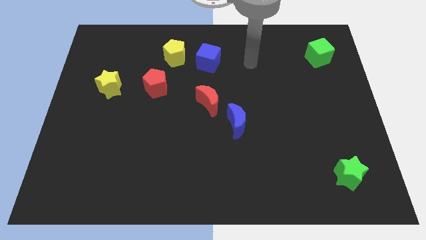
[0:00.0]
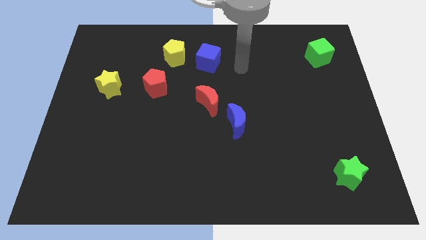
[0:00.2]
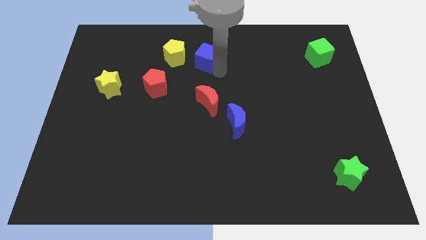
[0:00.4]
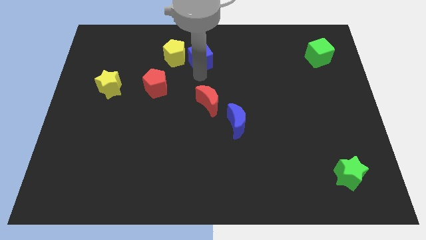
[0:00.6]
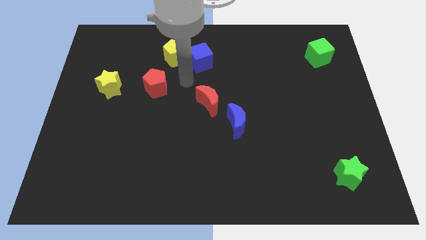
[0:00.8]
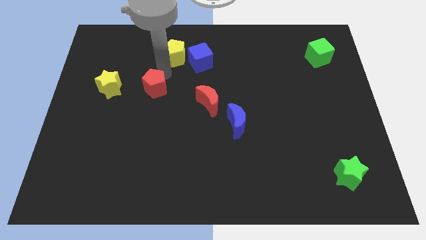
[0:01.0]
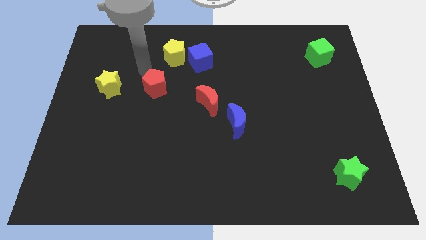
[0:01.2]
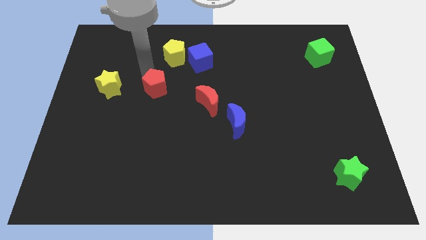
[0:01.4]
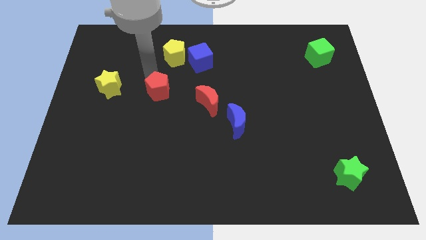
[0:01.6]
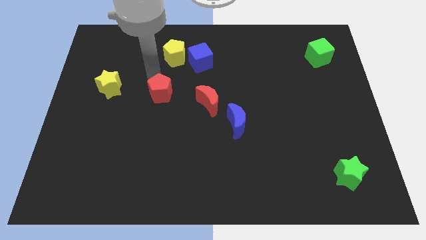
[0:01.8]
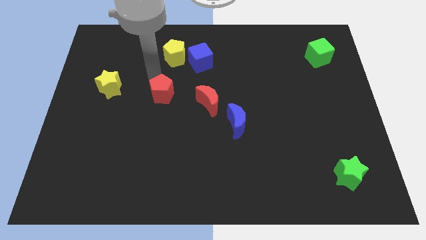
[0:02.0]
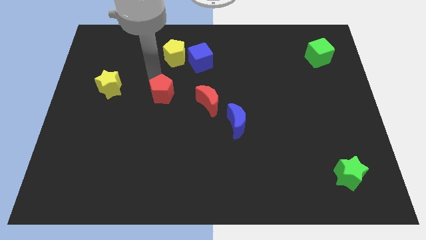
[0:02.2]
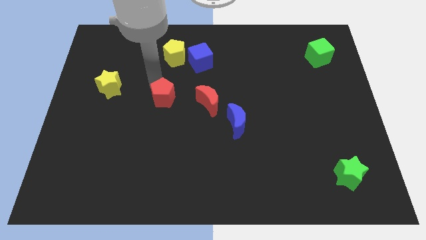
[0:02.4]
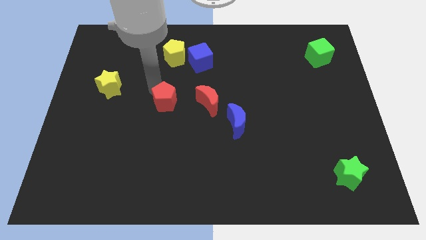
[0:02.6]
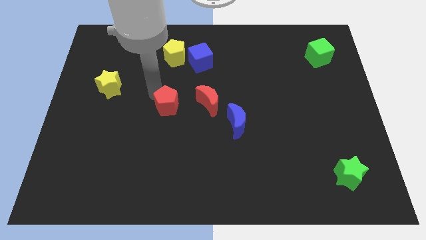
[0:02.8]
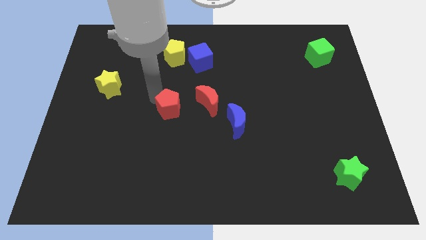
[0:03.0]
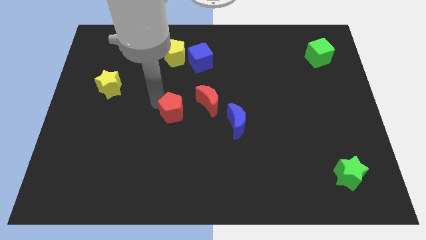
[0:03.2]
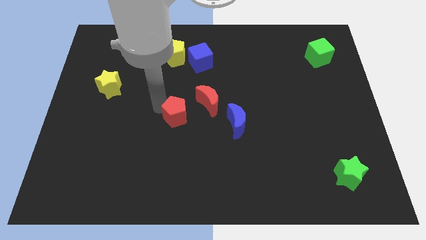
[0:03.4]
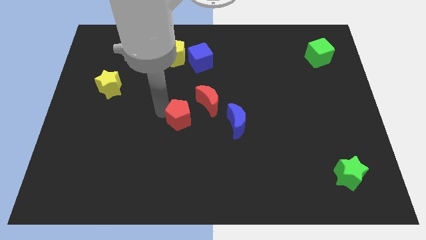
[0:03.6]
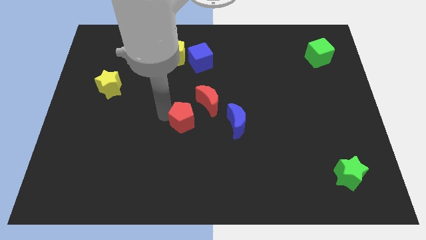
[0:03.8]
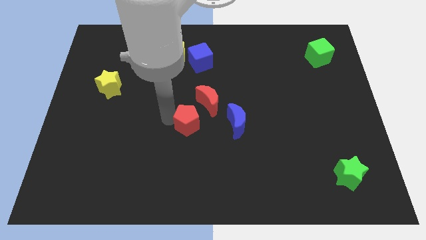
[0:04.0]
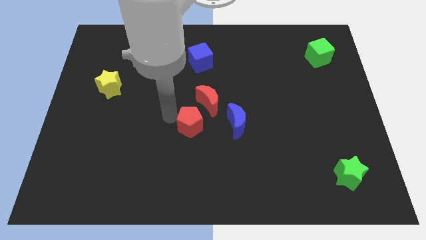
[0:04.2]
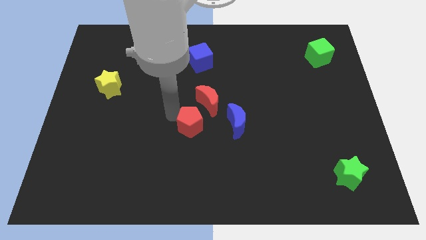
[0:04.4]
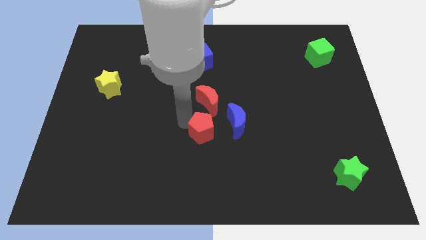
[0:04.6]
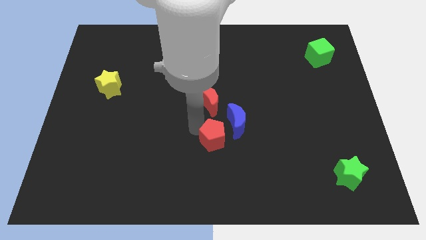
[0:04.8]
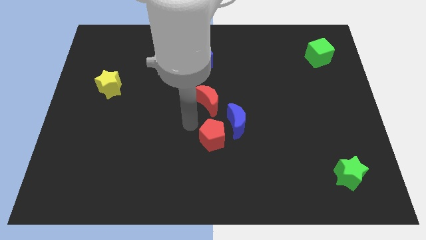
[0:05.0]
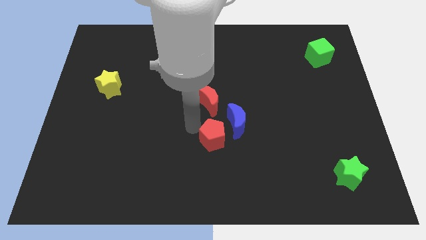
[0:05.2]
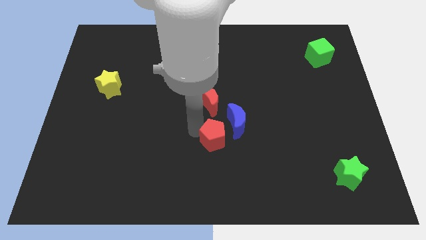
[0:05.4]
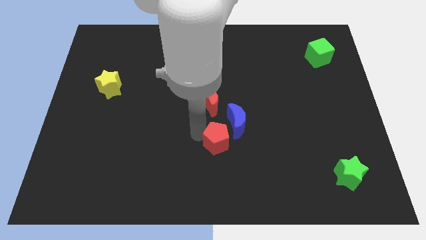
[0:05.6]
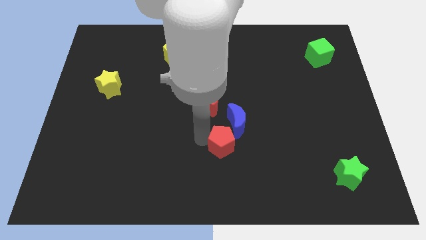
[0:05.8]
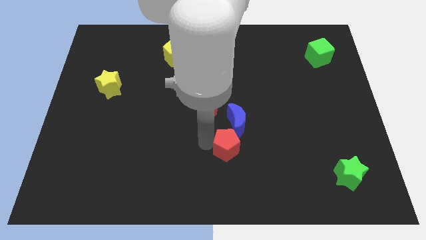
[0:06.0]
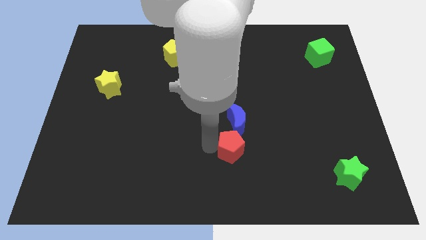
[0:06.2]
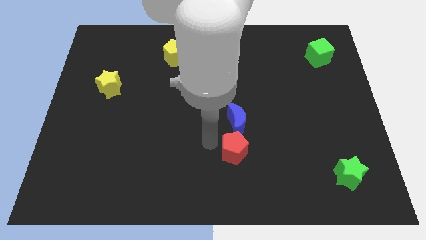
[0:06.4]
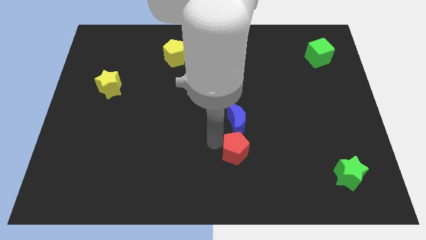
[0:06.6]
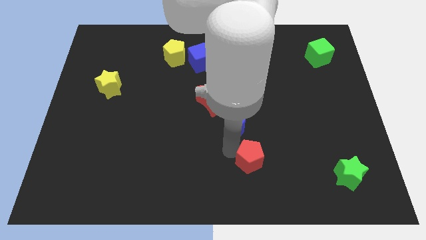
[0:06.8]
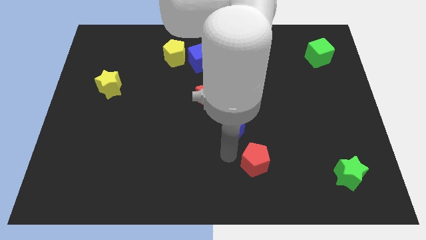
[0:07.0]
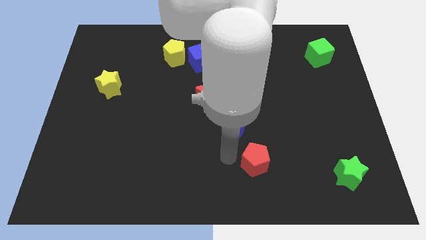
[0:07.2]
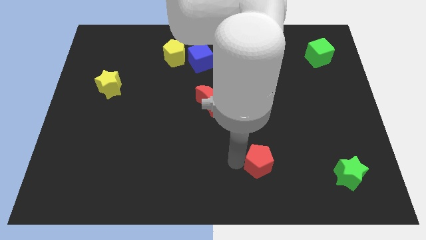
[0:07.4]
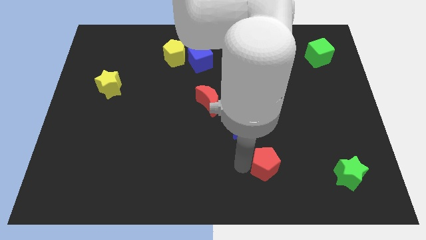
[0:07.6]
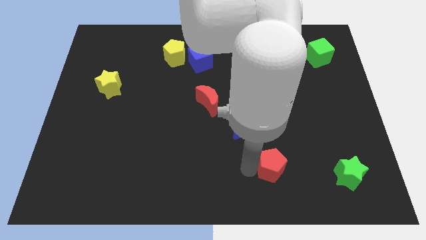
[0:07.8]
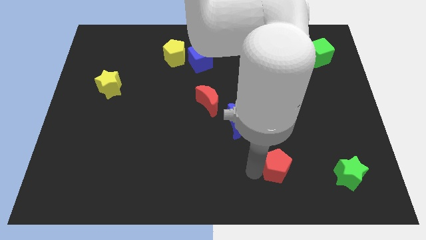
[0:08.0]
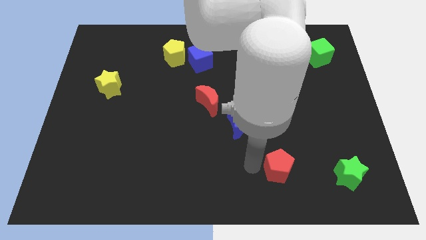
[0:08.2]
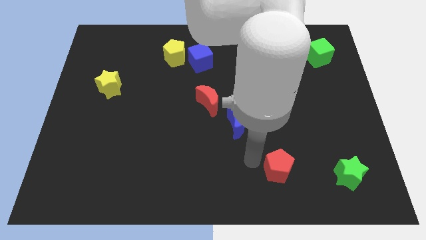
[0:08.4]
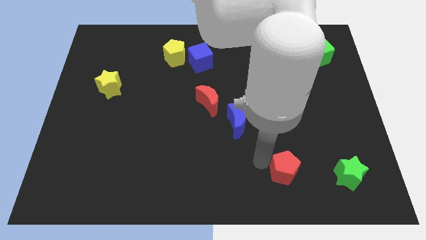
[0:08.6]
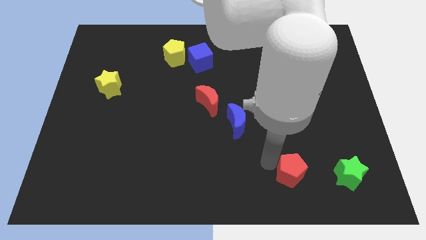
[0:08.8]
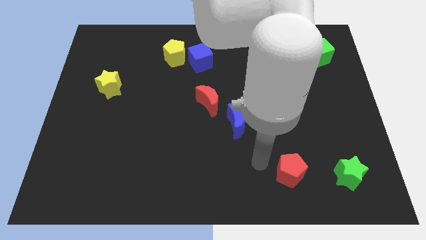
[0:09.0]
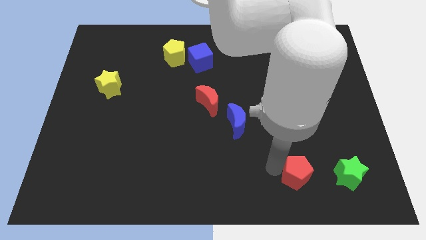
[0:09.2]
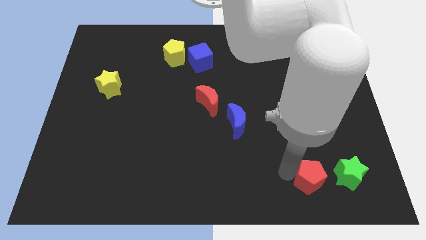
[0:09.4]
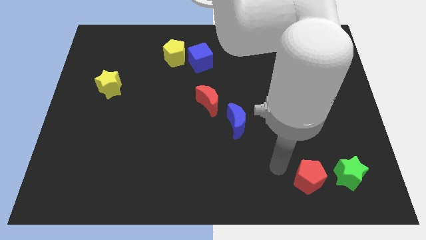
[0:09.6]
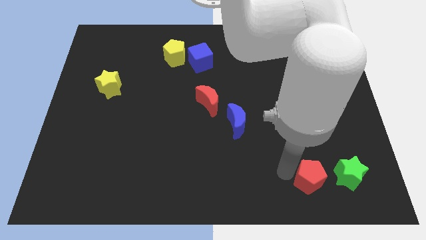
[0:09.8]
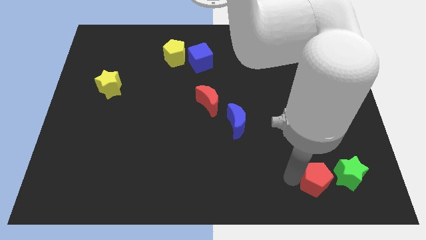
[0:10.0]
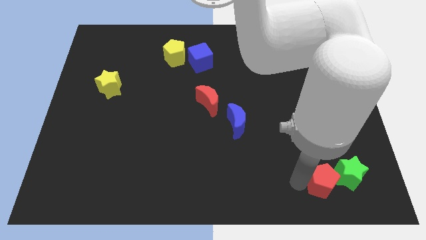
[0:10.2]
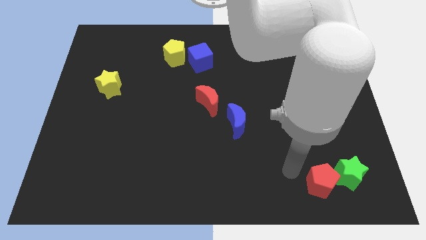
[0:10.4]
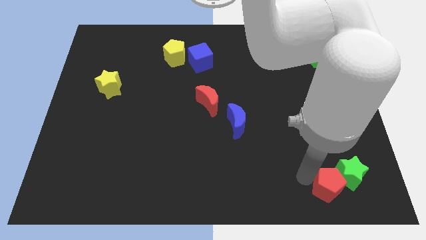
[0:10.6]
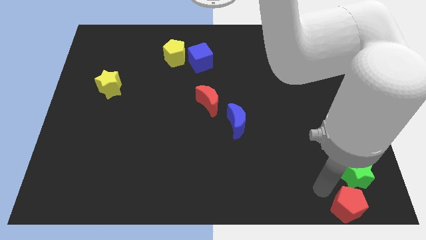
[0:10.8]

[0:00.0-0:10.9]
put the red pentagon to the lower right corner

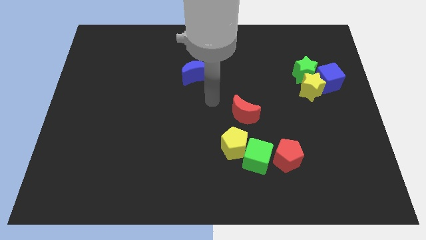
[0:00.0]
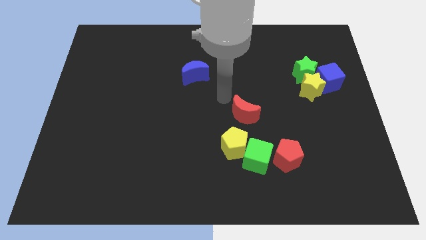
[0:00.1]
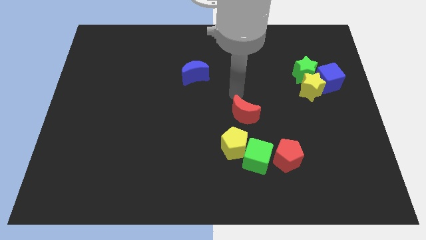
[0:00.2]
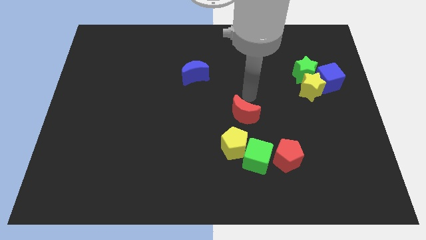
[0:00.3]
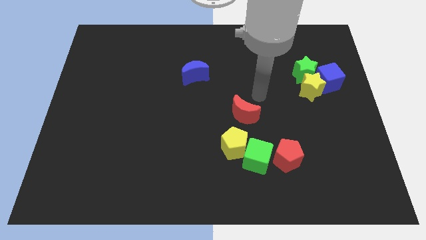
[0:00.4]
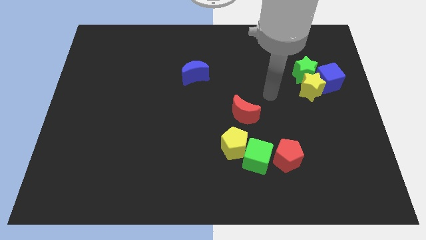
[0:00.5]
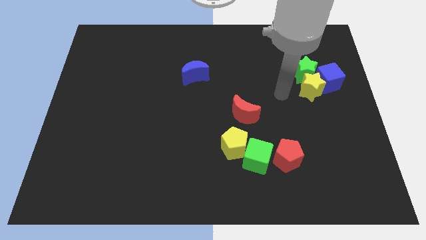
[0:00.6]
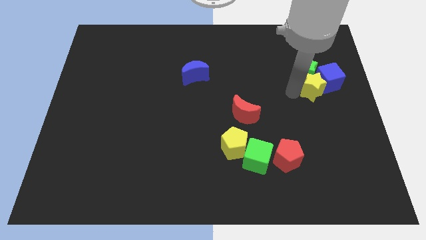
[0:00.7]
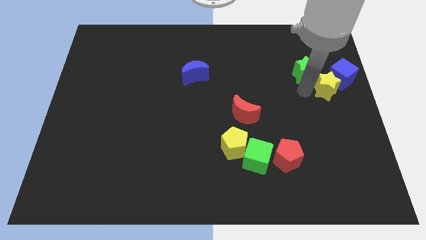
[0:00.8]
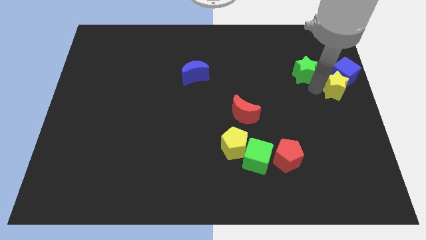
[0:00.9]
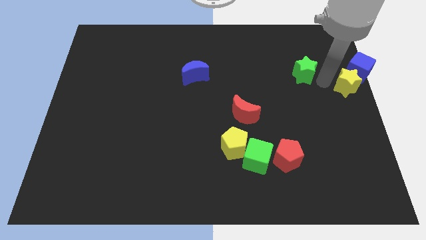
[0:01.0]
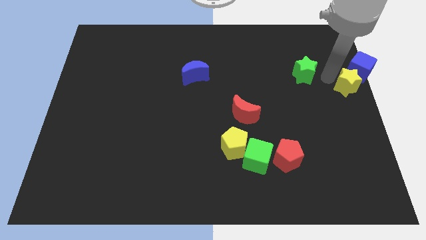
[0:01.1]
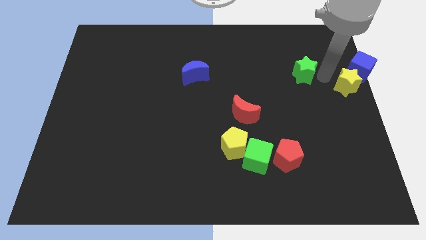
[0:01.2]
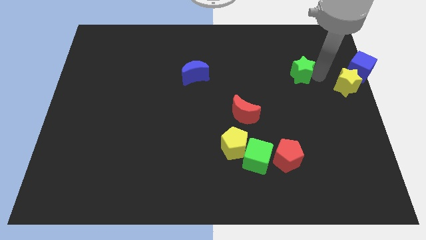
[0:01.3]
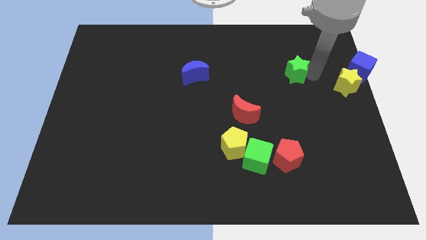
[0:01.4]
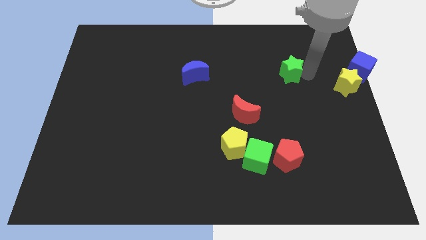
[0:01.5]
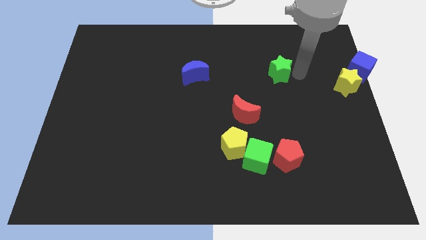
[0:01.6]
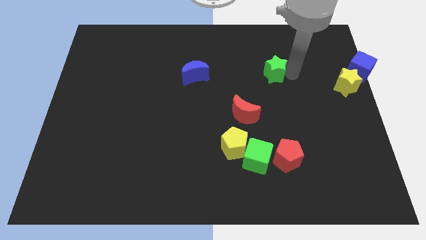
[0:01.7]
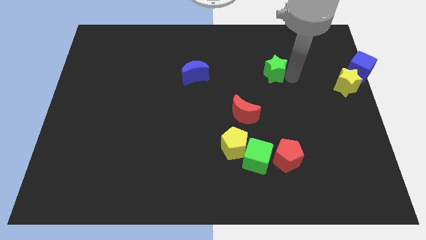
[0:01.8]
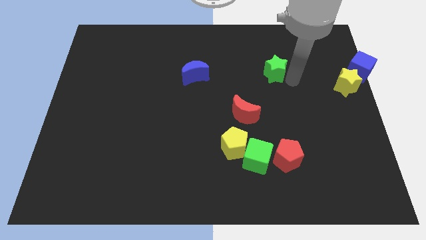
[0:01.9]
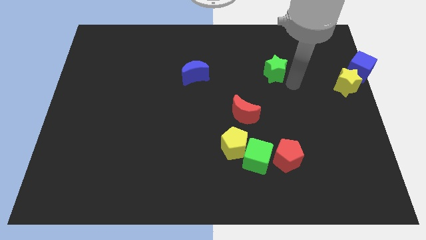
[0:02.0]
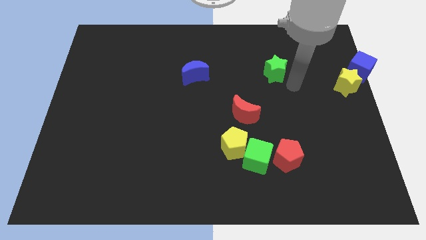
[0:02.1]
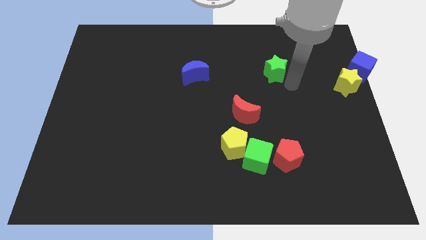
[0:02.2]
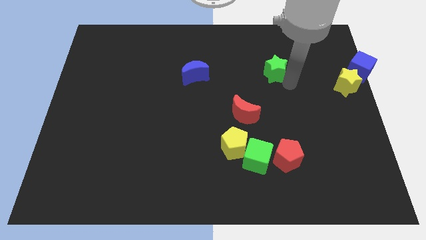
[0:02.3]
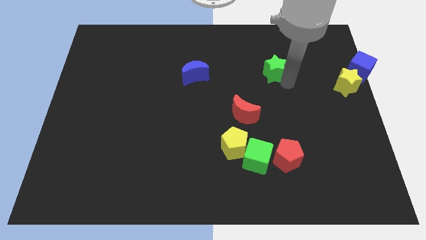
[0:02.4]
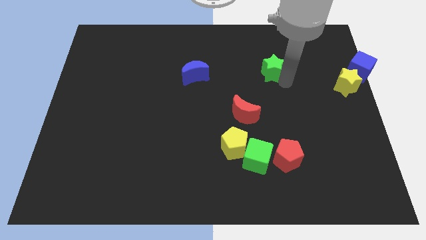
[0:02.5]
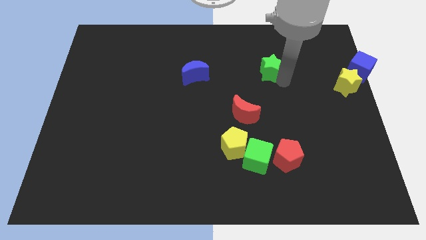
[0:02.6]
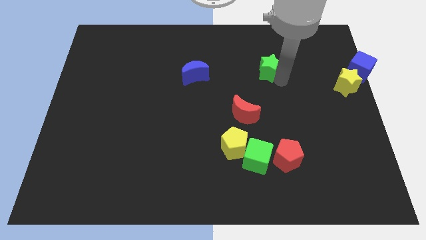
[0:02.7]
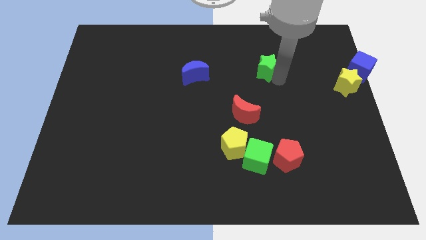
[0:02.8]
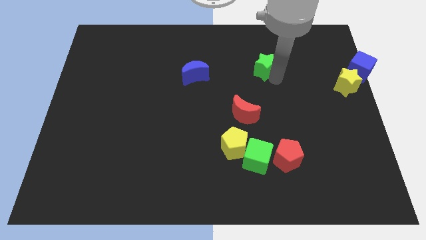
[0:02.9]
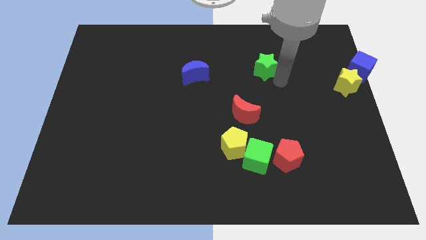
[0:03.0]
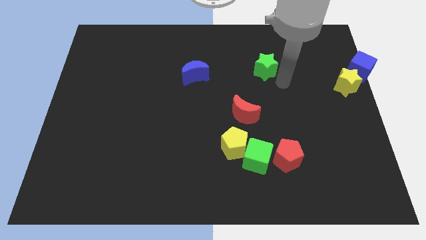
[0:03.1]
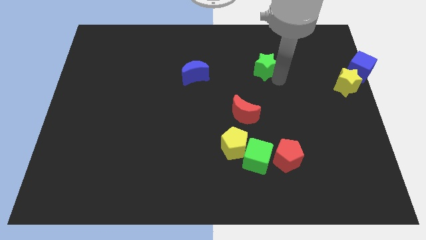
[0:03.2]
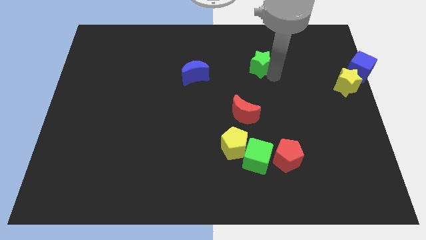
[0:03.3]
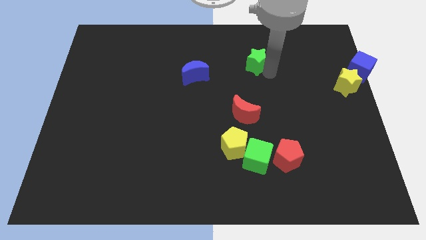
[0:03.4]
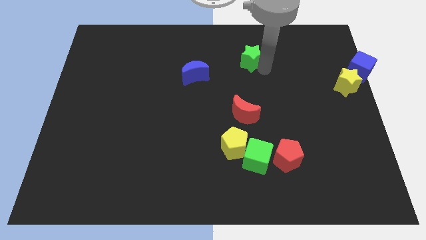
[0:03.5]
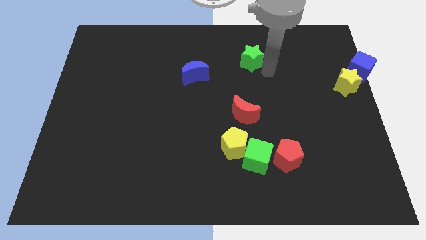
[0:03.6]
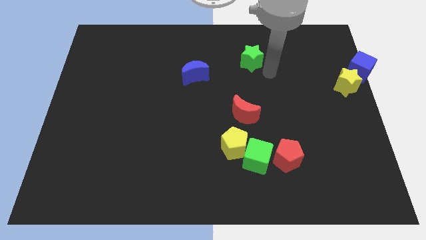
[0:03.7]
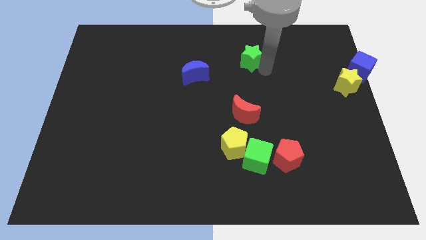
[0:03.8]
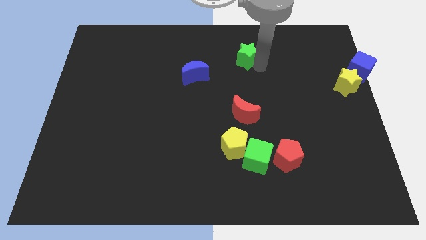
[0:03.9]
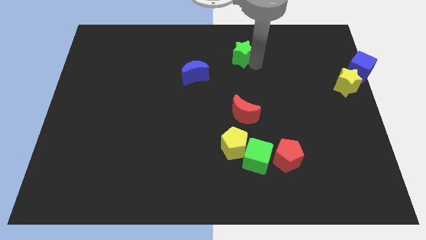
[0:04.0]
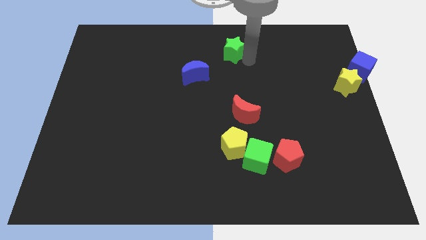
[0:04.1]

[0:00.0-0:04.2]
push the green star to the top
